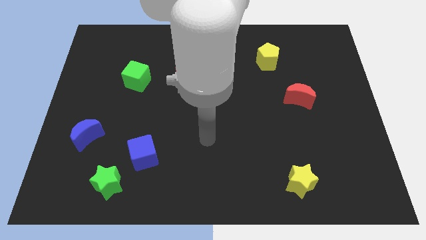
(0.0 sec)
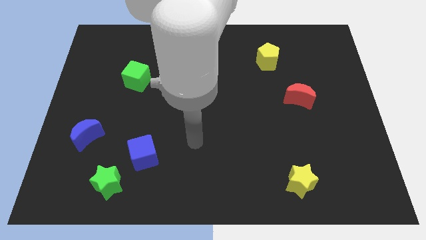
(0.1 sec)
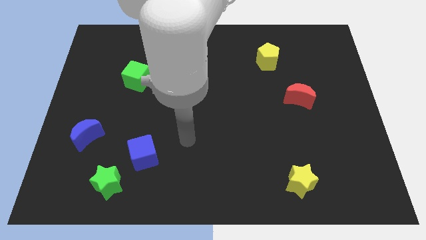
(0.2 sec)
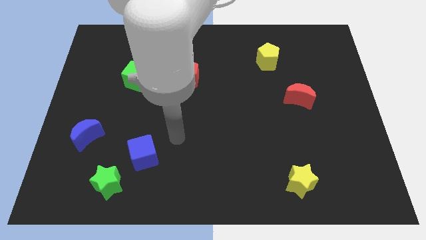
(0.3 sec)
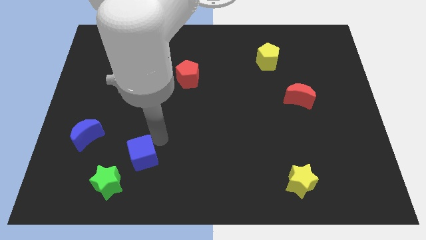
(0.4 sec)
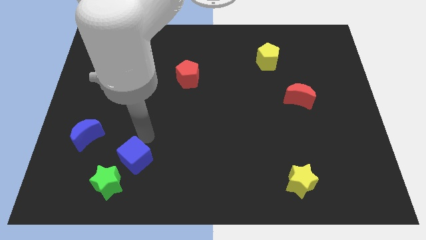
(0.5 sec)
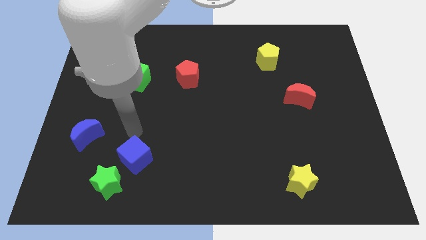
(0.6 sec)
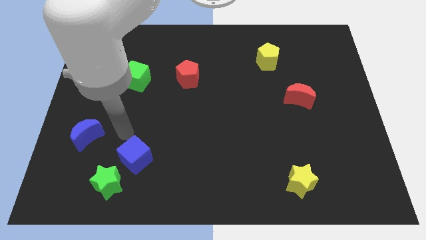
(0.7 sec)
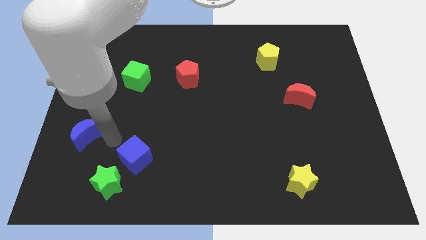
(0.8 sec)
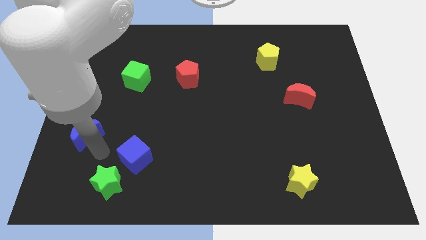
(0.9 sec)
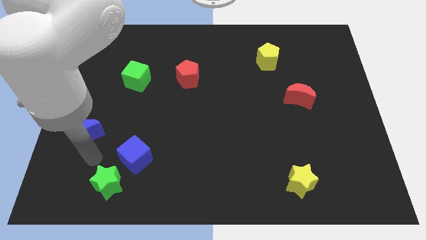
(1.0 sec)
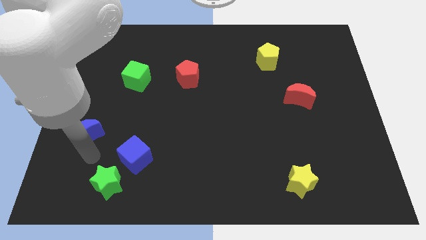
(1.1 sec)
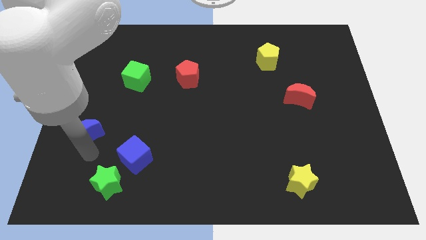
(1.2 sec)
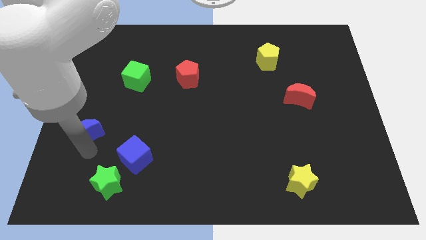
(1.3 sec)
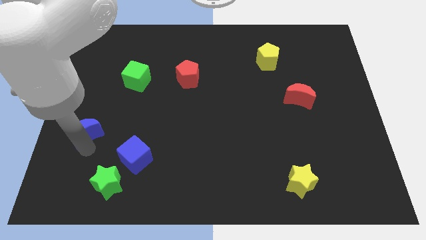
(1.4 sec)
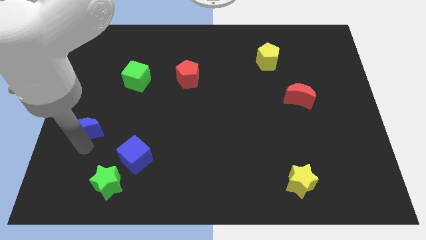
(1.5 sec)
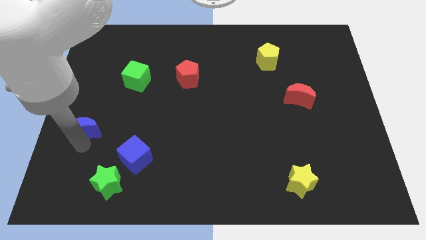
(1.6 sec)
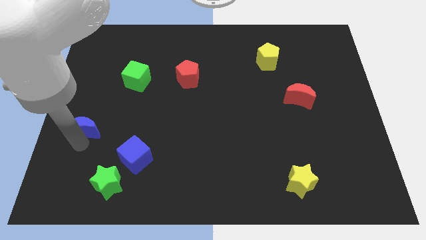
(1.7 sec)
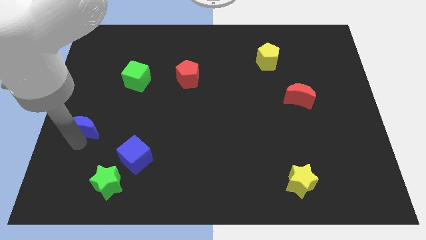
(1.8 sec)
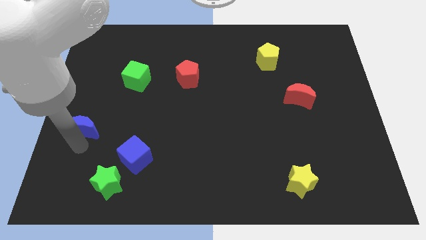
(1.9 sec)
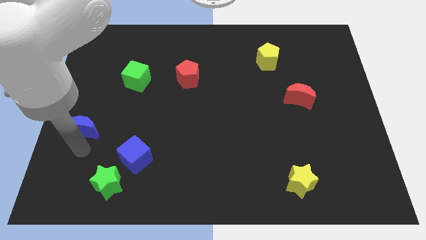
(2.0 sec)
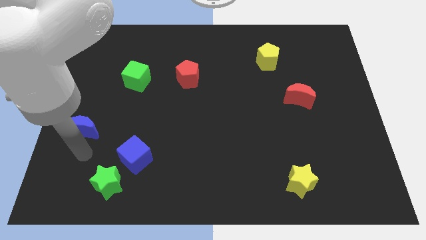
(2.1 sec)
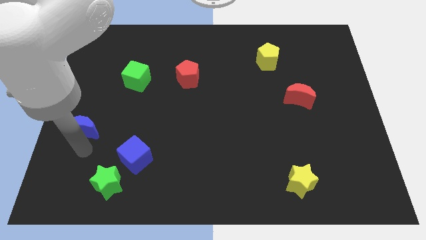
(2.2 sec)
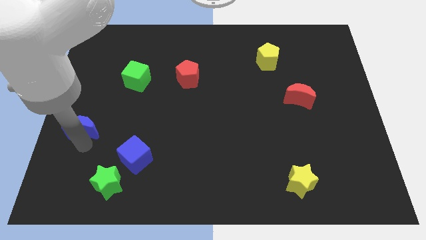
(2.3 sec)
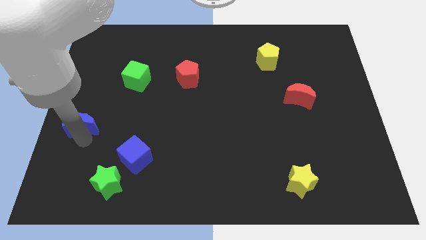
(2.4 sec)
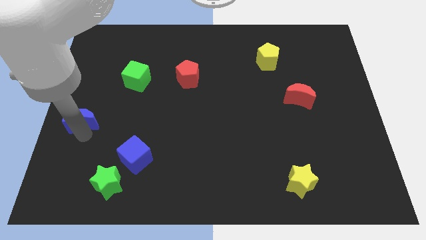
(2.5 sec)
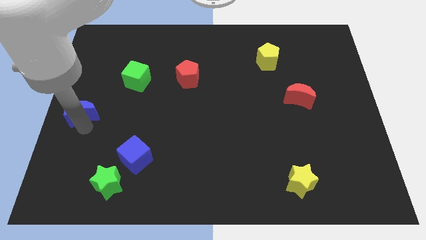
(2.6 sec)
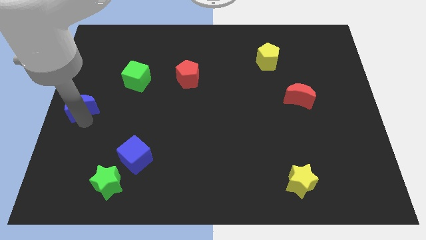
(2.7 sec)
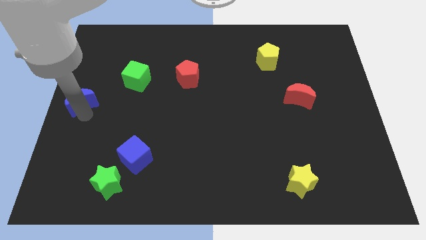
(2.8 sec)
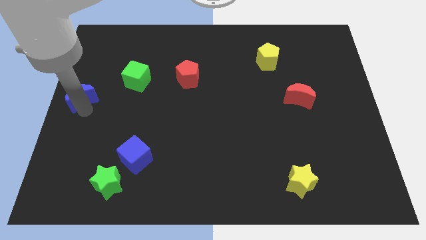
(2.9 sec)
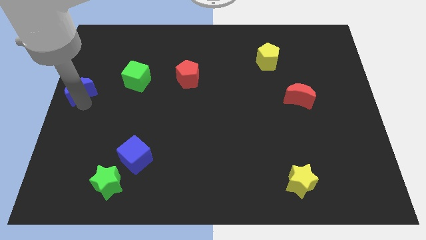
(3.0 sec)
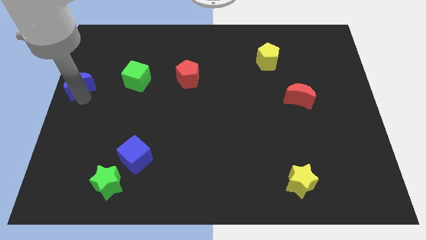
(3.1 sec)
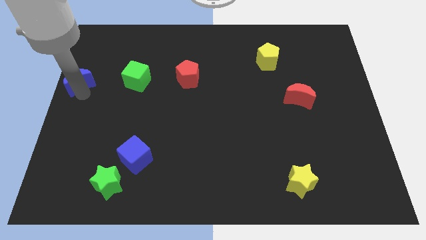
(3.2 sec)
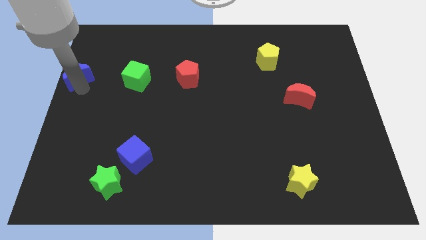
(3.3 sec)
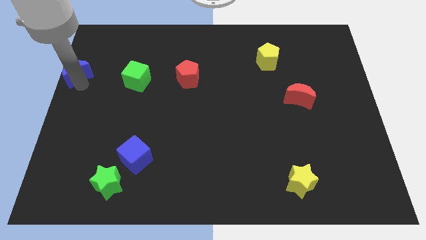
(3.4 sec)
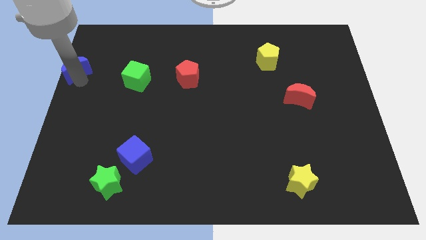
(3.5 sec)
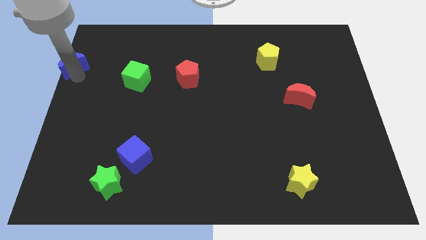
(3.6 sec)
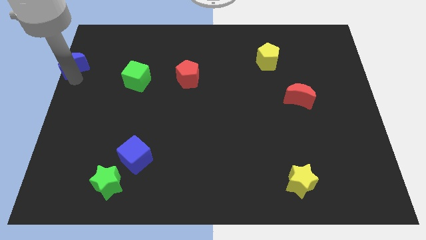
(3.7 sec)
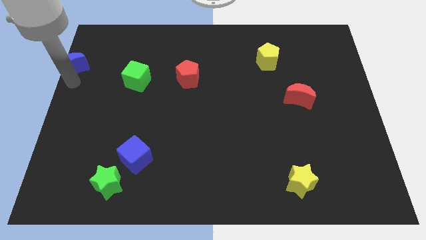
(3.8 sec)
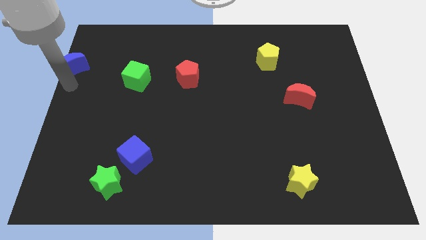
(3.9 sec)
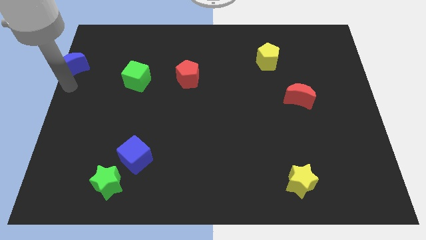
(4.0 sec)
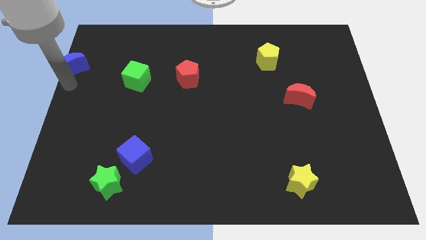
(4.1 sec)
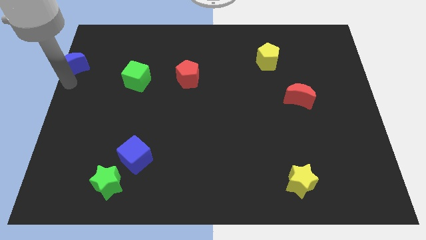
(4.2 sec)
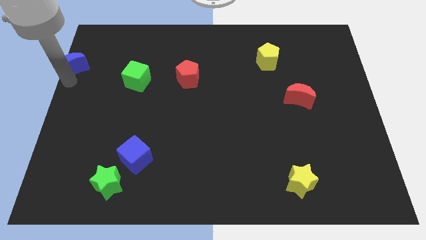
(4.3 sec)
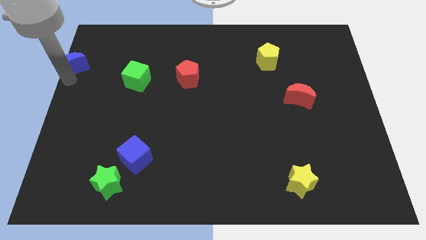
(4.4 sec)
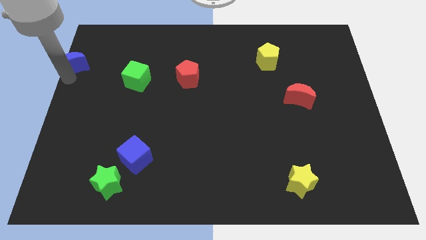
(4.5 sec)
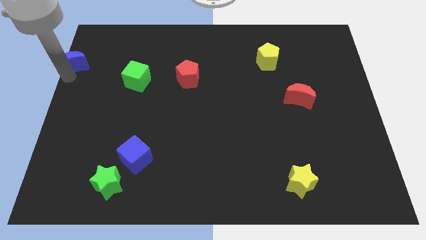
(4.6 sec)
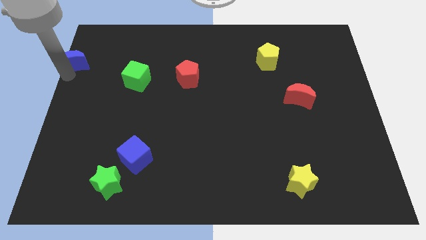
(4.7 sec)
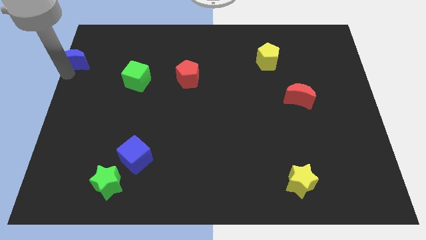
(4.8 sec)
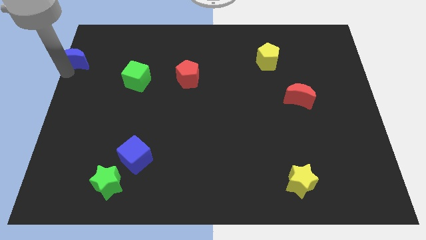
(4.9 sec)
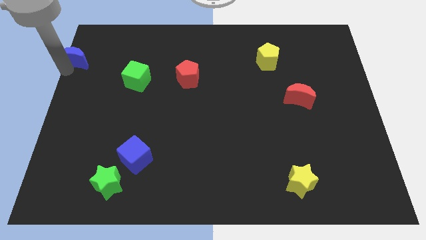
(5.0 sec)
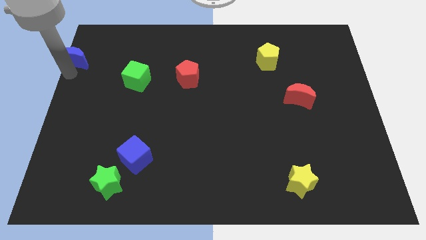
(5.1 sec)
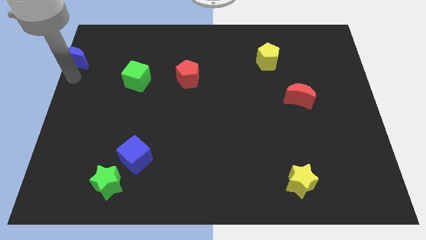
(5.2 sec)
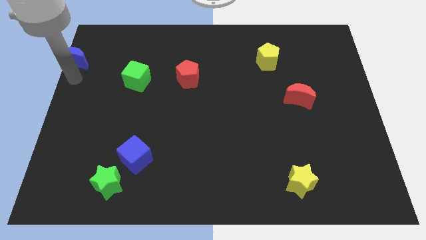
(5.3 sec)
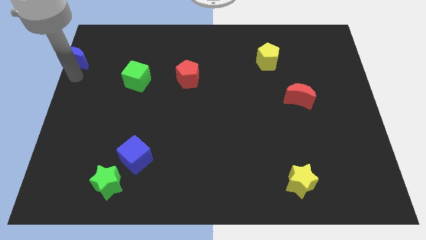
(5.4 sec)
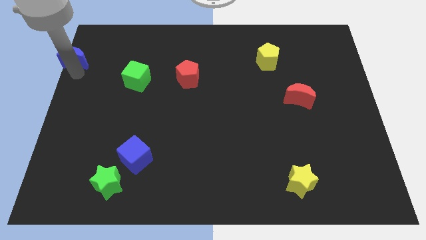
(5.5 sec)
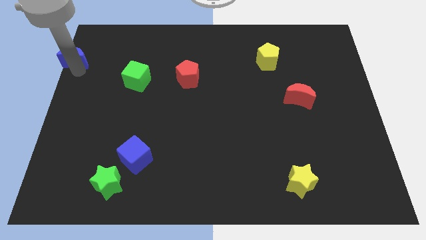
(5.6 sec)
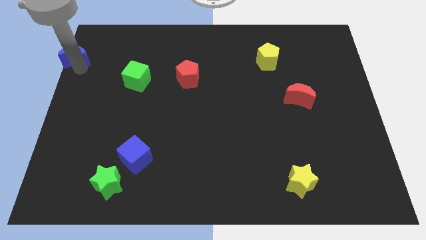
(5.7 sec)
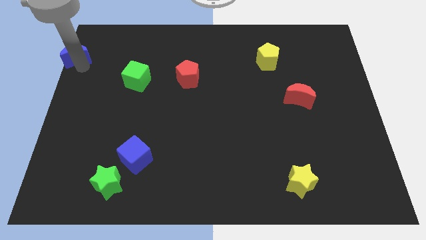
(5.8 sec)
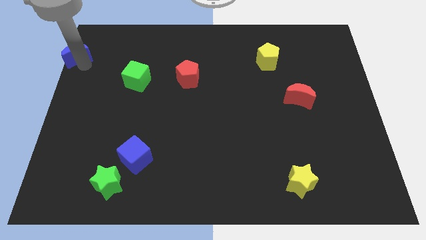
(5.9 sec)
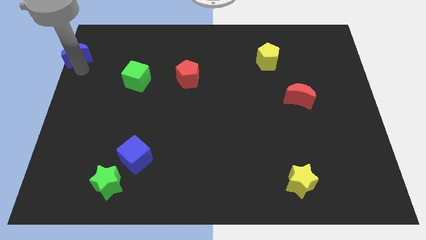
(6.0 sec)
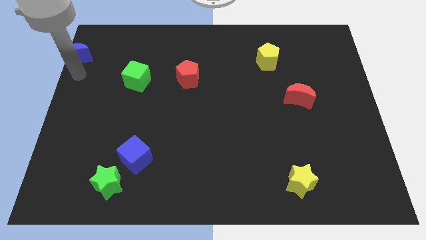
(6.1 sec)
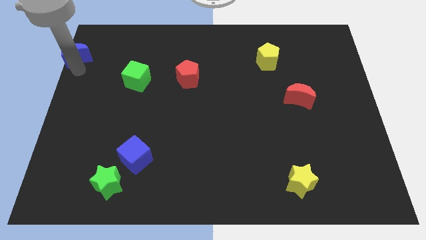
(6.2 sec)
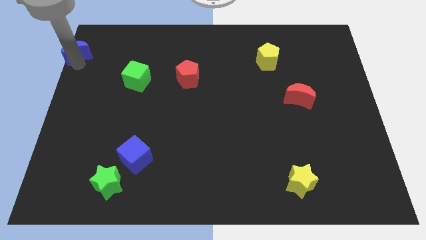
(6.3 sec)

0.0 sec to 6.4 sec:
put the blue moon to the upper left corner

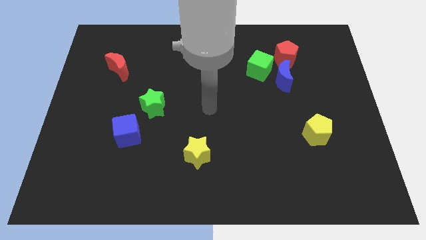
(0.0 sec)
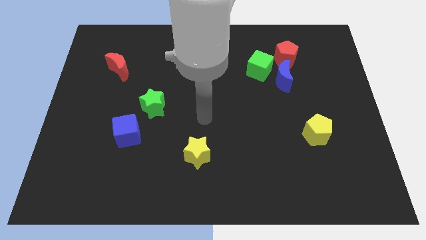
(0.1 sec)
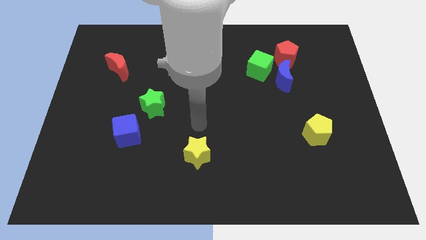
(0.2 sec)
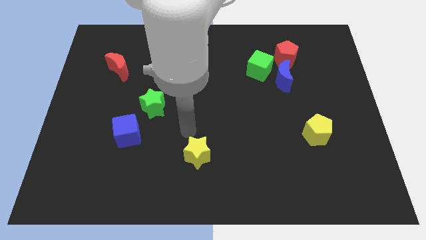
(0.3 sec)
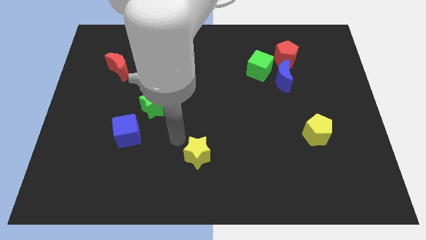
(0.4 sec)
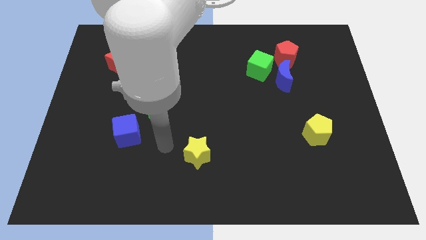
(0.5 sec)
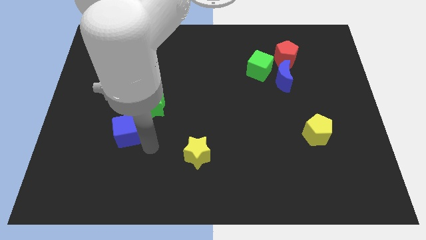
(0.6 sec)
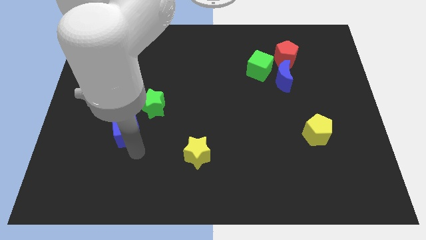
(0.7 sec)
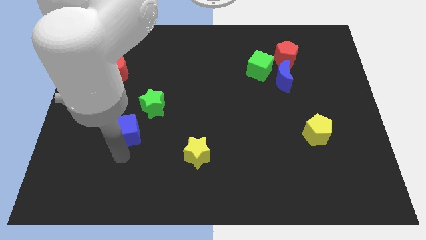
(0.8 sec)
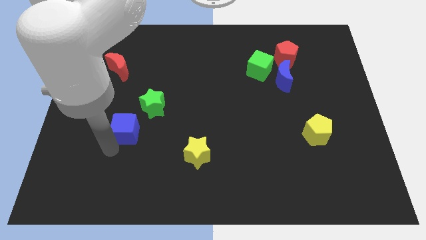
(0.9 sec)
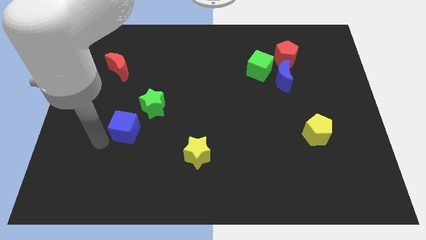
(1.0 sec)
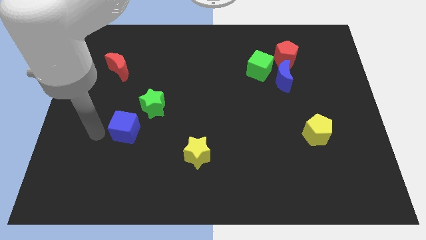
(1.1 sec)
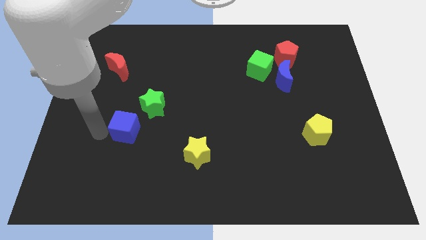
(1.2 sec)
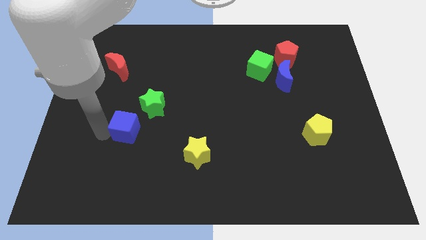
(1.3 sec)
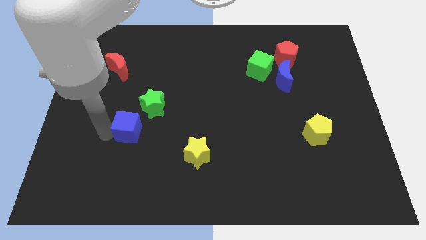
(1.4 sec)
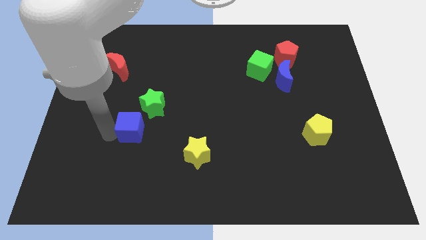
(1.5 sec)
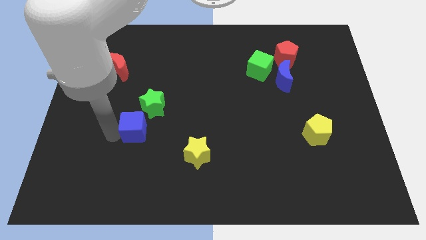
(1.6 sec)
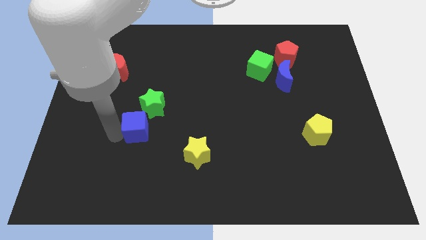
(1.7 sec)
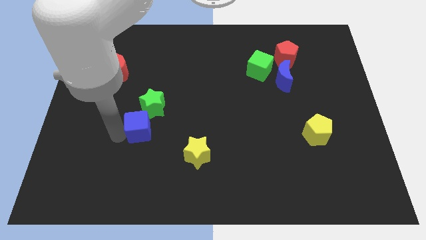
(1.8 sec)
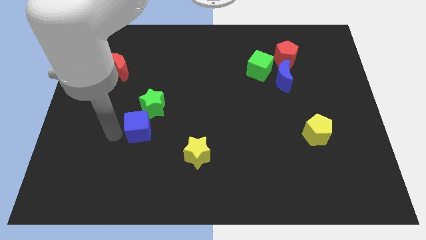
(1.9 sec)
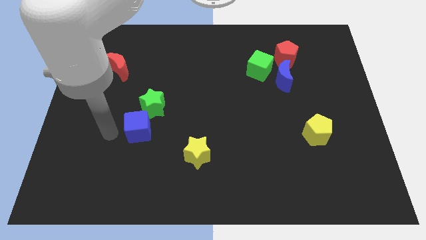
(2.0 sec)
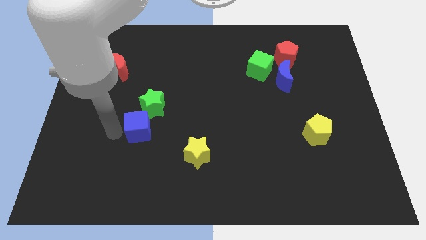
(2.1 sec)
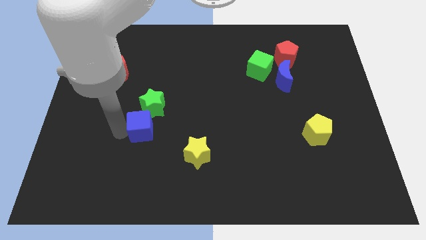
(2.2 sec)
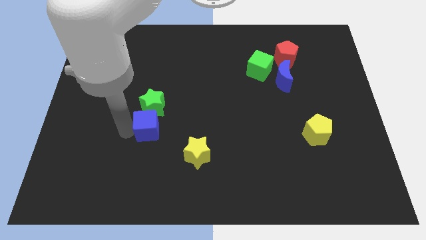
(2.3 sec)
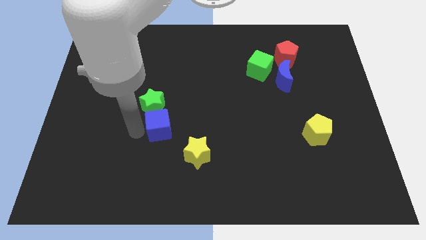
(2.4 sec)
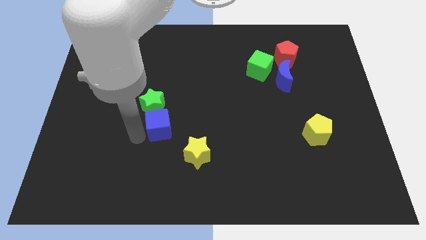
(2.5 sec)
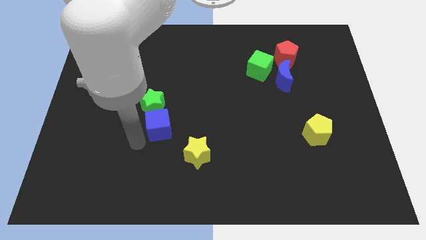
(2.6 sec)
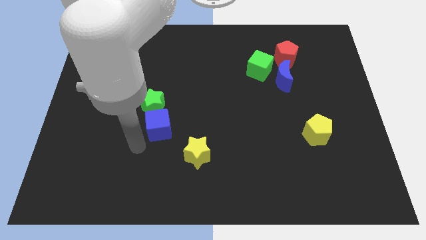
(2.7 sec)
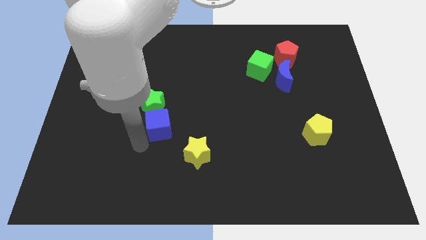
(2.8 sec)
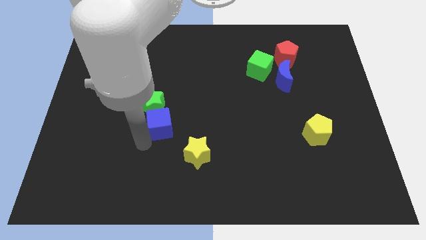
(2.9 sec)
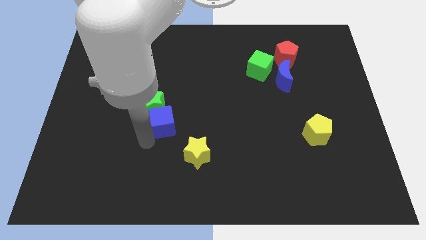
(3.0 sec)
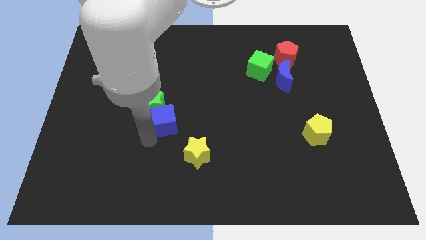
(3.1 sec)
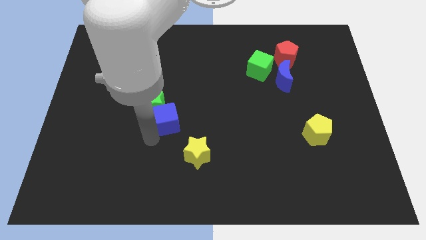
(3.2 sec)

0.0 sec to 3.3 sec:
slide the blue cube to the center of the board
